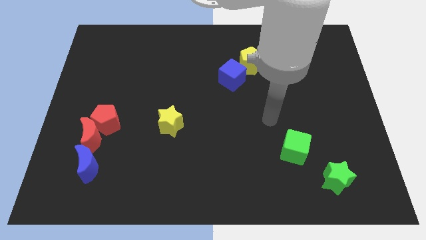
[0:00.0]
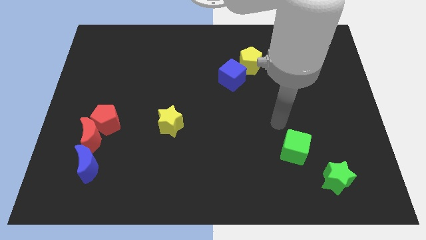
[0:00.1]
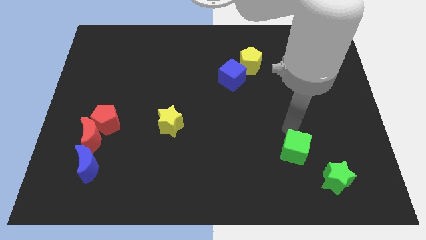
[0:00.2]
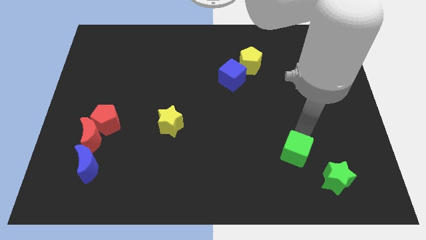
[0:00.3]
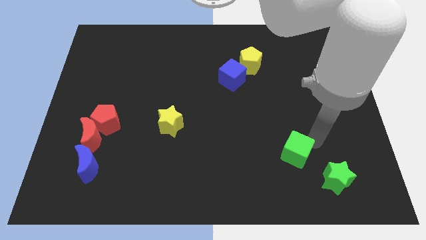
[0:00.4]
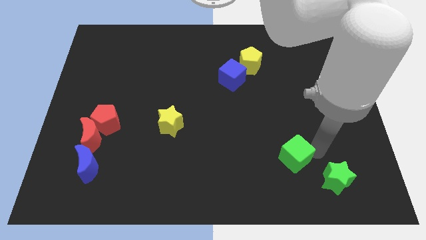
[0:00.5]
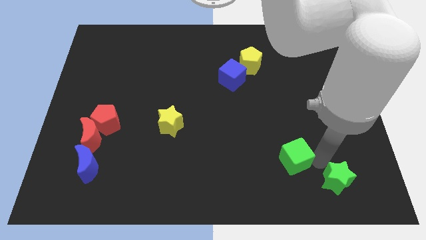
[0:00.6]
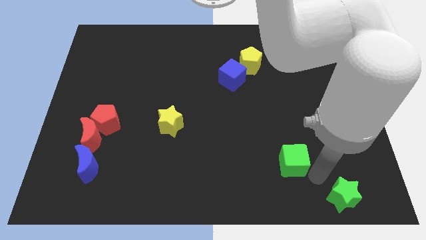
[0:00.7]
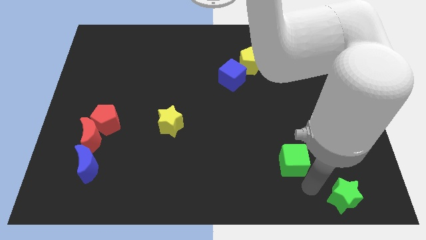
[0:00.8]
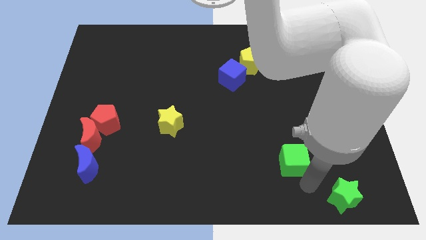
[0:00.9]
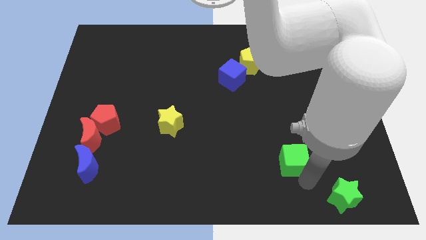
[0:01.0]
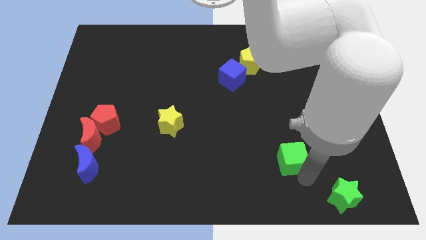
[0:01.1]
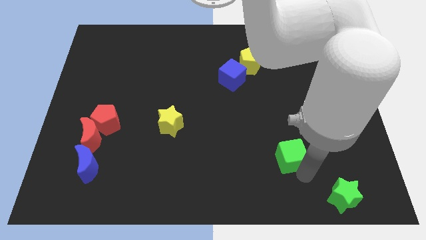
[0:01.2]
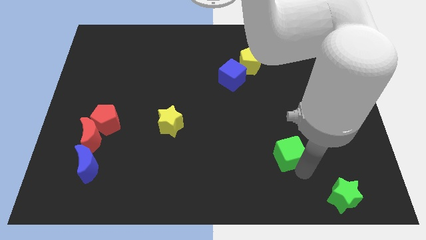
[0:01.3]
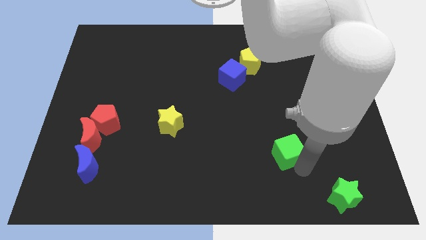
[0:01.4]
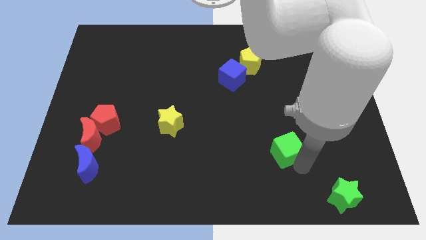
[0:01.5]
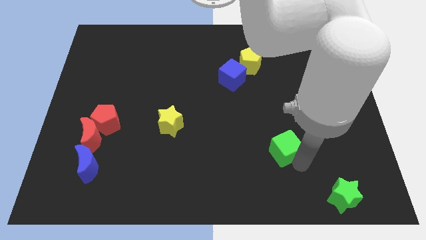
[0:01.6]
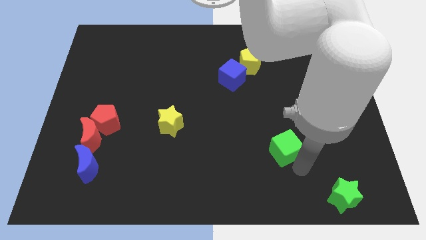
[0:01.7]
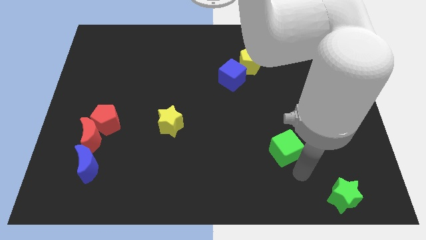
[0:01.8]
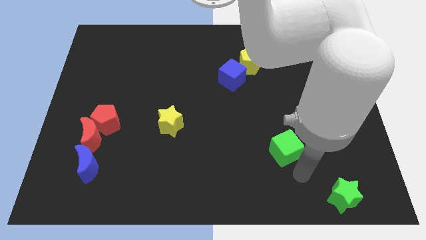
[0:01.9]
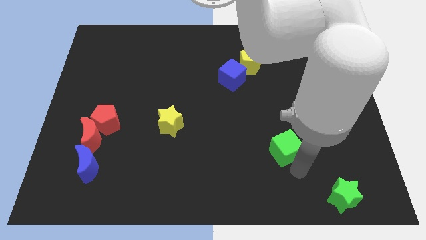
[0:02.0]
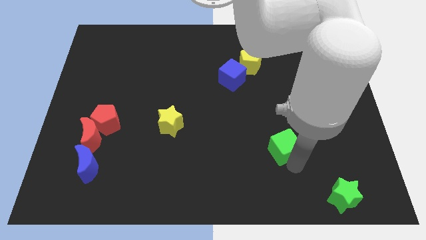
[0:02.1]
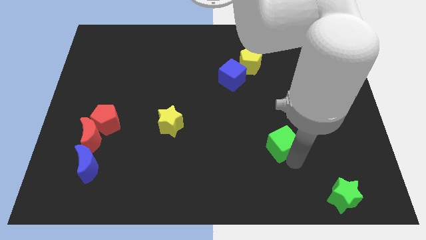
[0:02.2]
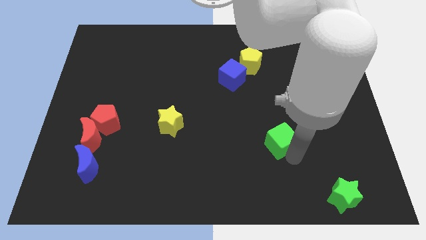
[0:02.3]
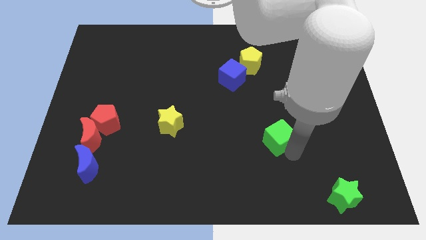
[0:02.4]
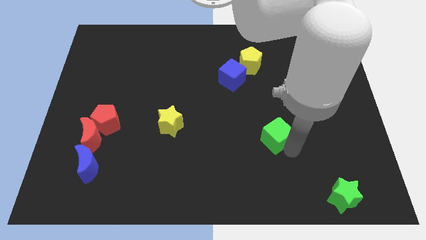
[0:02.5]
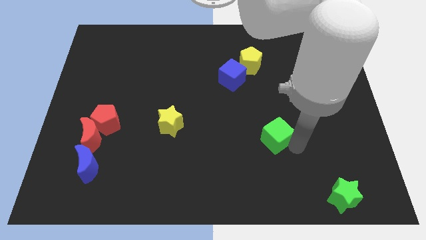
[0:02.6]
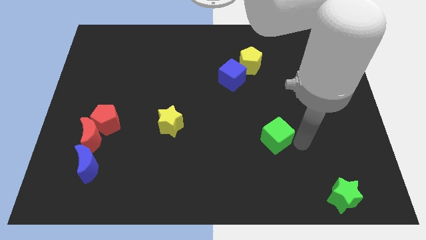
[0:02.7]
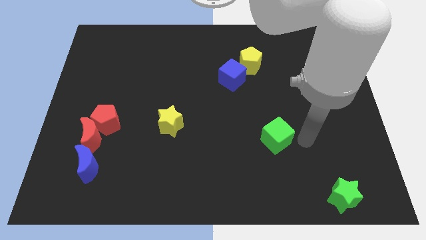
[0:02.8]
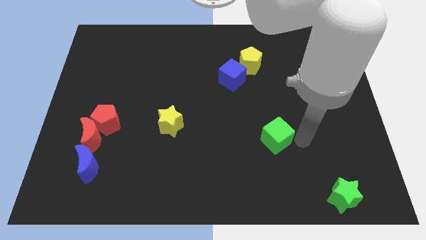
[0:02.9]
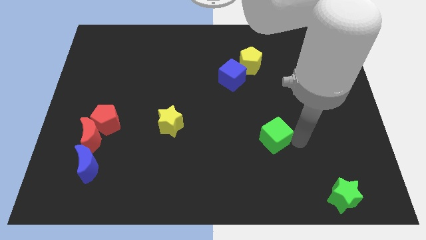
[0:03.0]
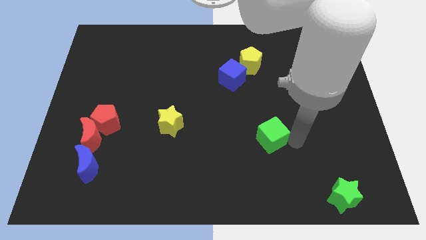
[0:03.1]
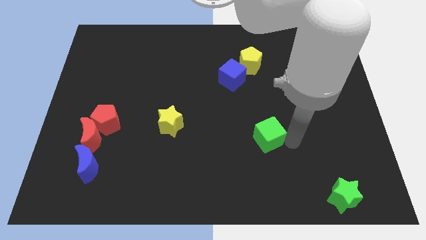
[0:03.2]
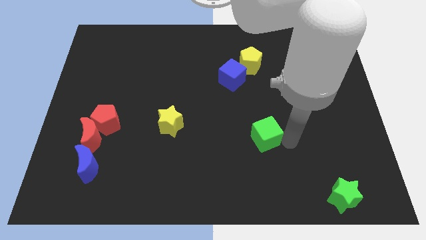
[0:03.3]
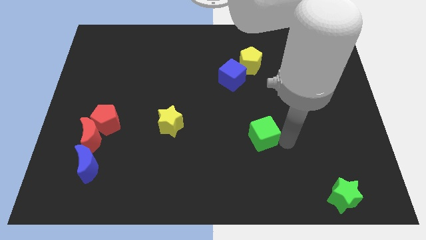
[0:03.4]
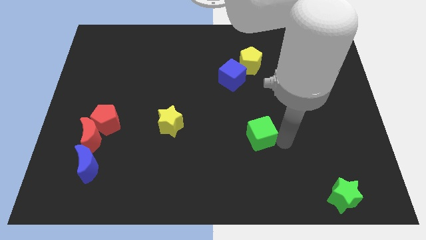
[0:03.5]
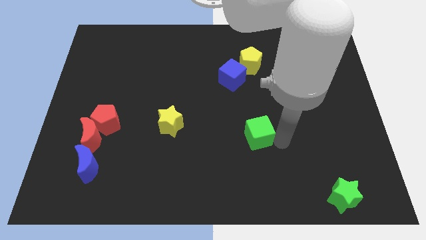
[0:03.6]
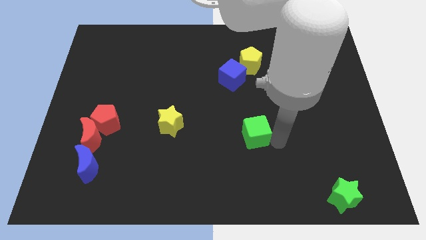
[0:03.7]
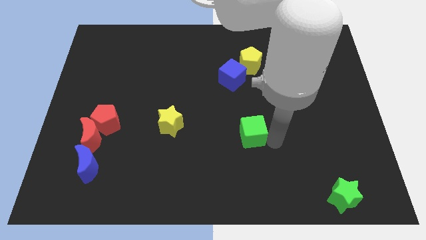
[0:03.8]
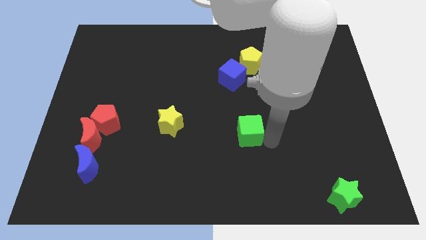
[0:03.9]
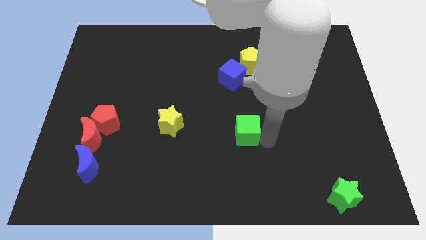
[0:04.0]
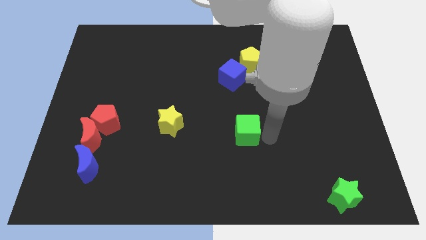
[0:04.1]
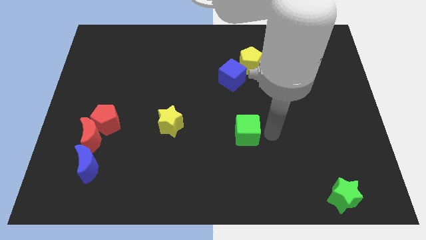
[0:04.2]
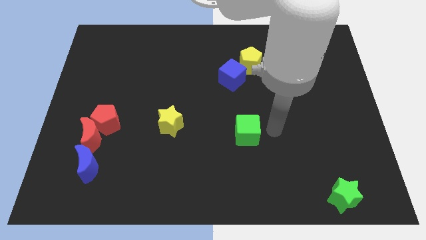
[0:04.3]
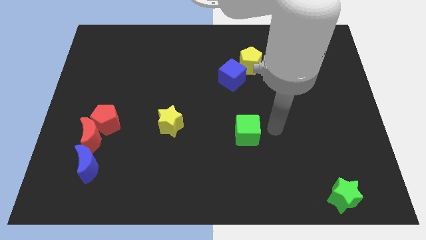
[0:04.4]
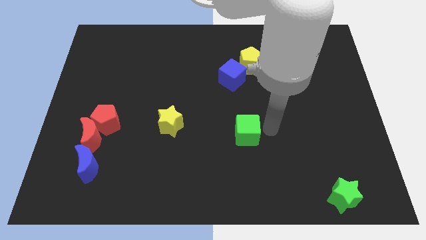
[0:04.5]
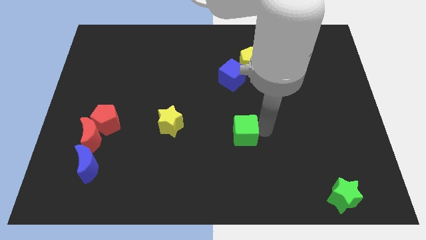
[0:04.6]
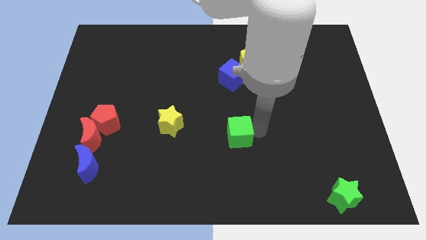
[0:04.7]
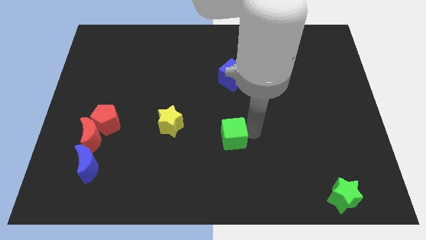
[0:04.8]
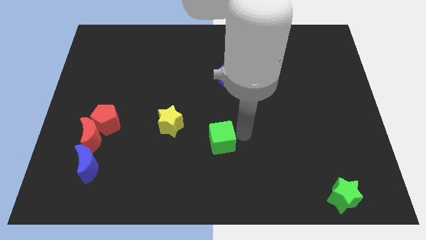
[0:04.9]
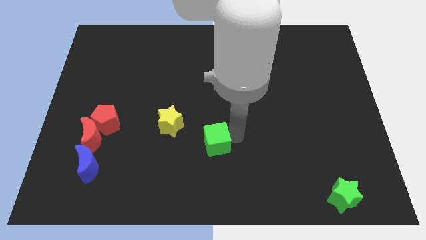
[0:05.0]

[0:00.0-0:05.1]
push the green cube to the bottom right side of the yellow star

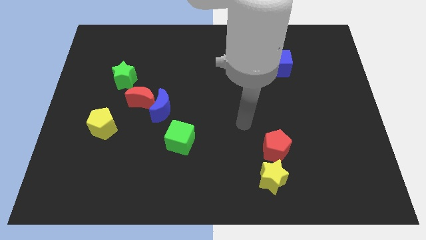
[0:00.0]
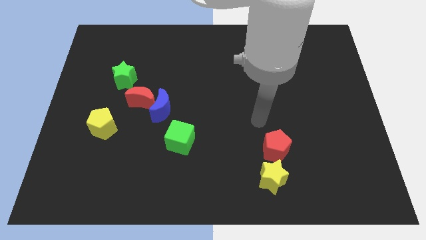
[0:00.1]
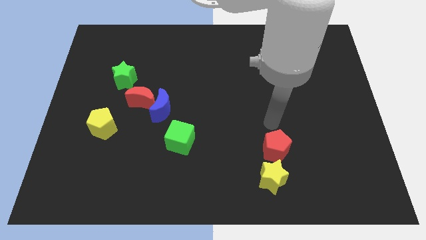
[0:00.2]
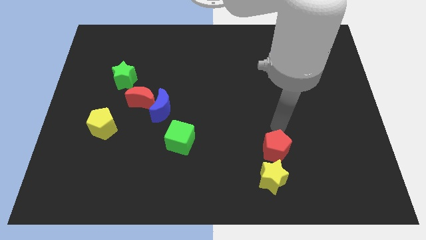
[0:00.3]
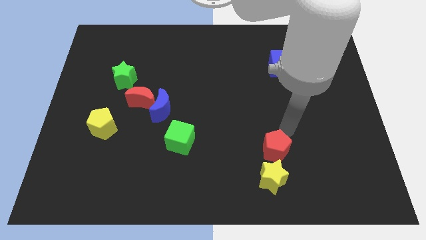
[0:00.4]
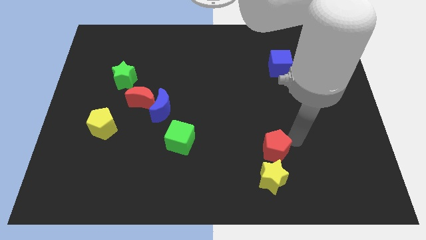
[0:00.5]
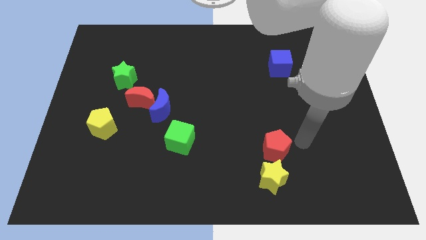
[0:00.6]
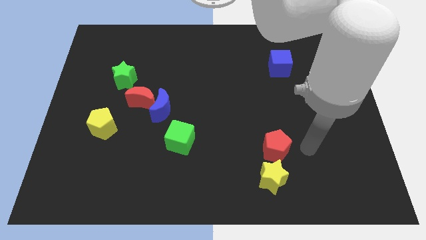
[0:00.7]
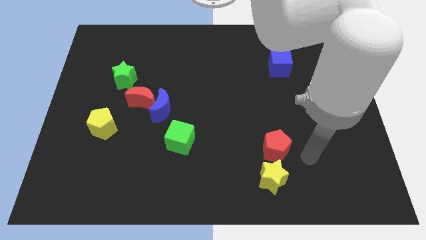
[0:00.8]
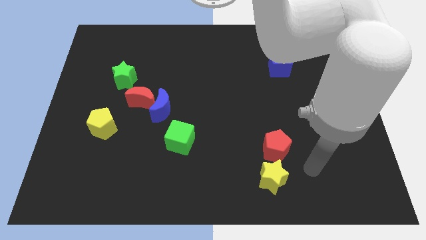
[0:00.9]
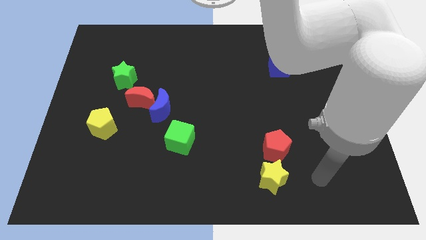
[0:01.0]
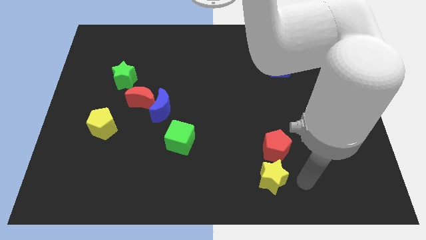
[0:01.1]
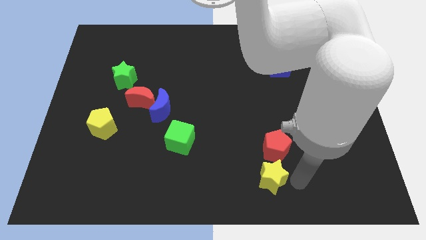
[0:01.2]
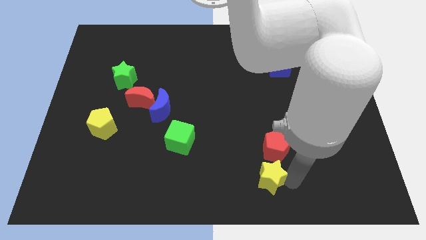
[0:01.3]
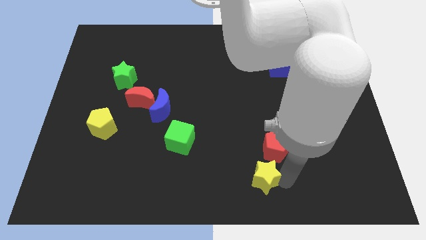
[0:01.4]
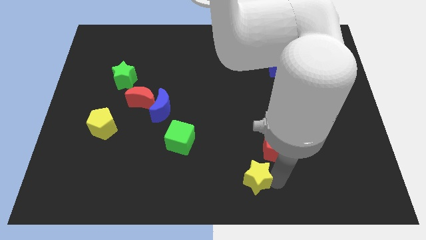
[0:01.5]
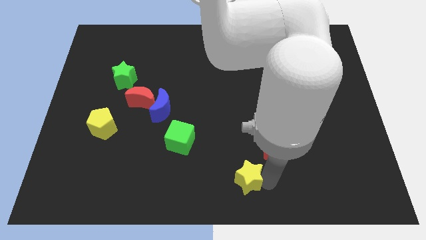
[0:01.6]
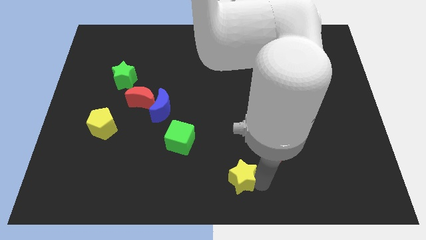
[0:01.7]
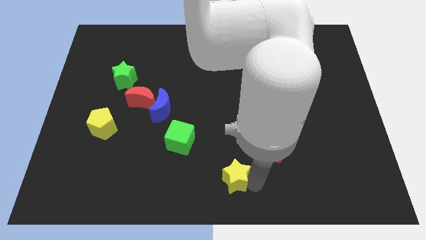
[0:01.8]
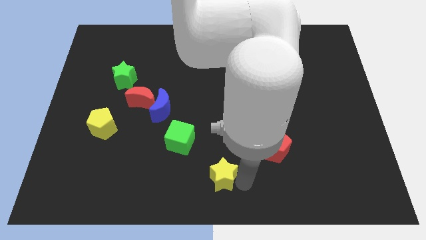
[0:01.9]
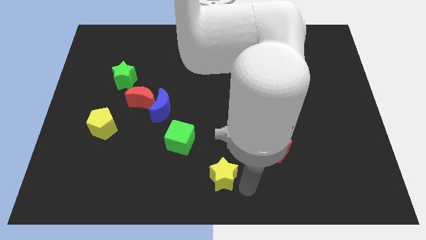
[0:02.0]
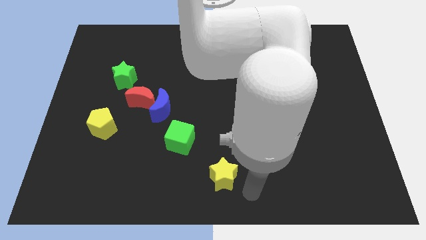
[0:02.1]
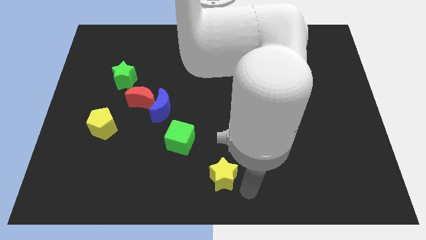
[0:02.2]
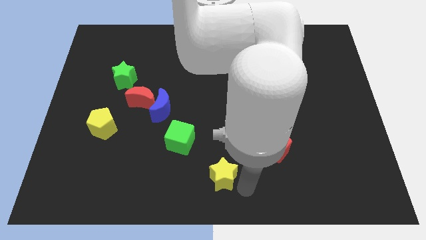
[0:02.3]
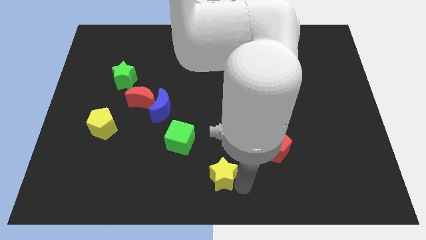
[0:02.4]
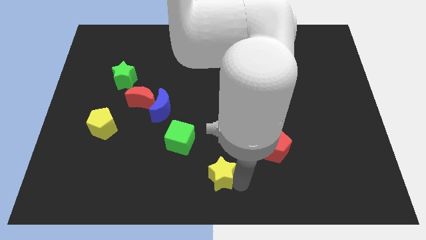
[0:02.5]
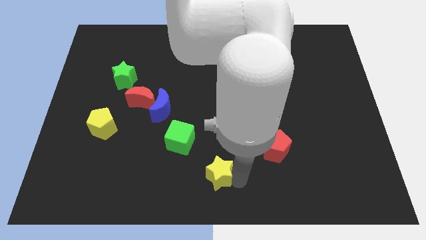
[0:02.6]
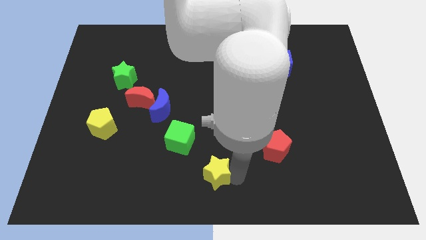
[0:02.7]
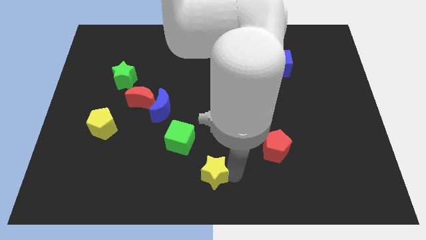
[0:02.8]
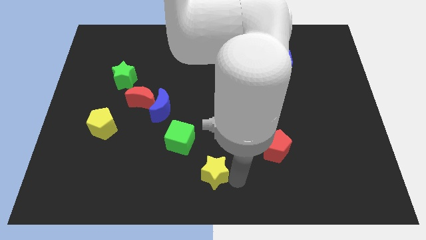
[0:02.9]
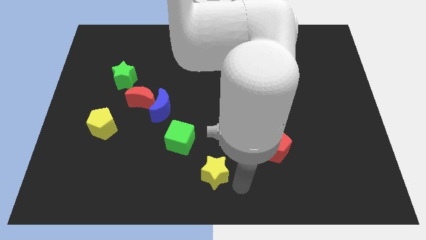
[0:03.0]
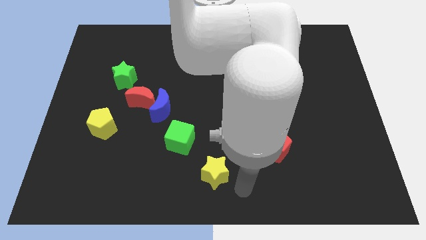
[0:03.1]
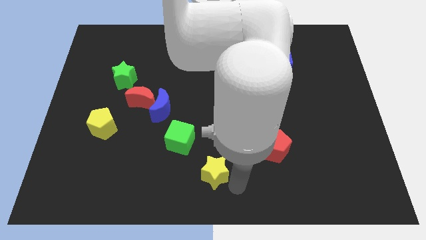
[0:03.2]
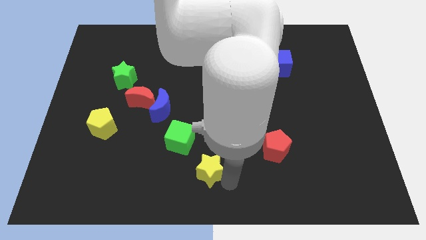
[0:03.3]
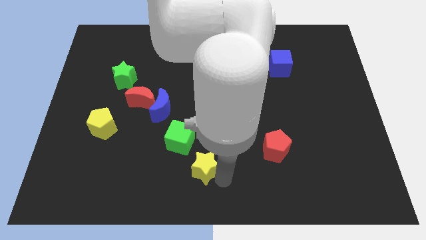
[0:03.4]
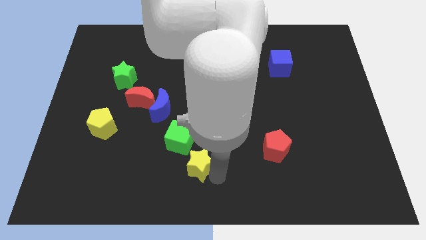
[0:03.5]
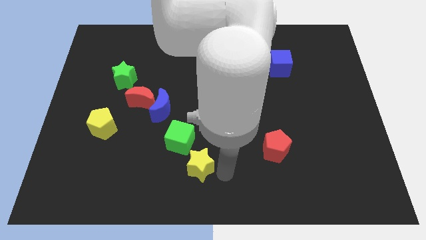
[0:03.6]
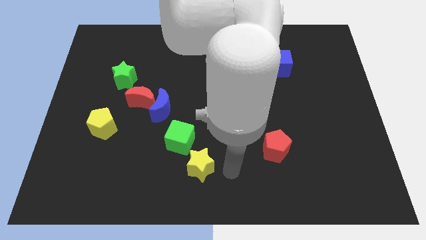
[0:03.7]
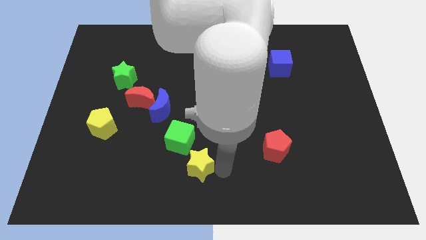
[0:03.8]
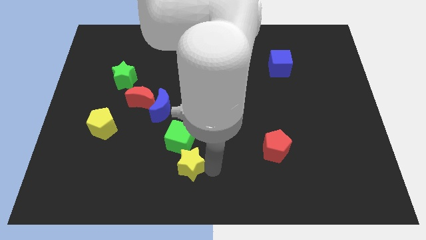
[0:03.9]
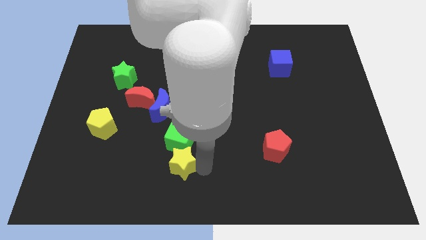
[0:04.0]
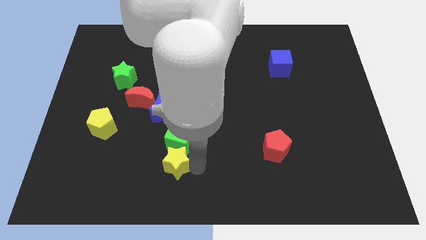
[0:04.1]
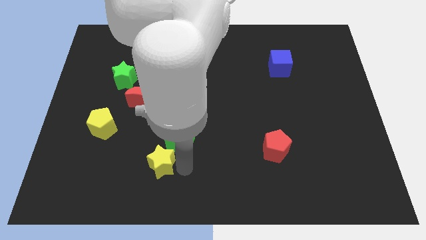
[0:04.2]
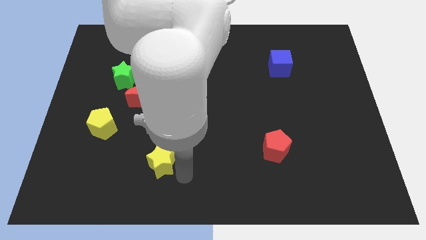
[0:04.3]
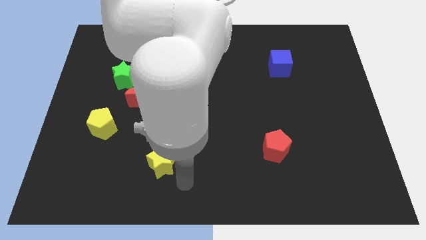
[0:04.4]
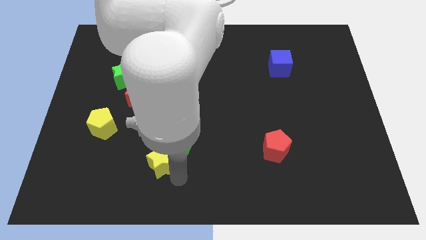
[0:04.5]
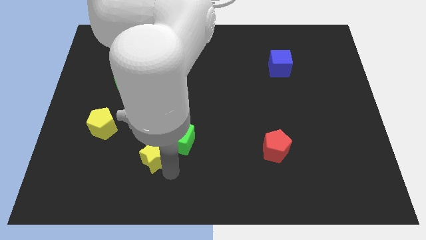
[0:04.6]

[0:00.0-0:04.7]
move the yellow star left of the green cube
